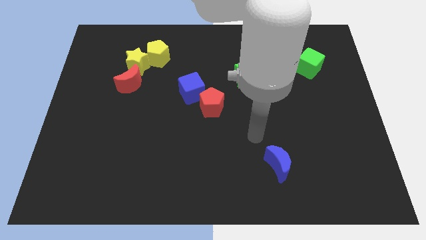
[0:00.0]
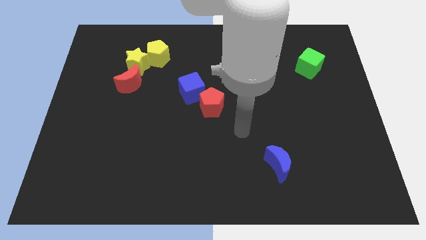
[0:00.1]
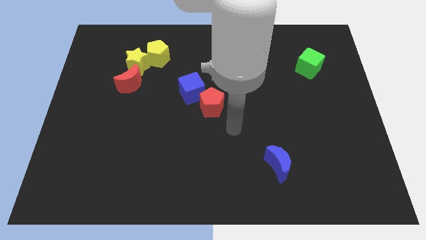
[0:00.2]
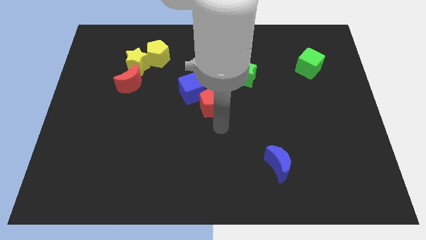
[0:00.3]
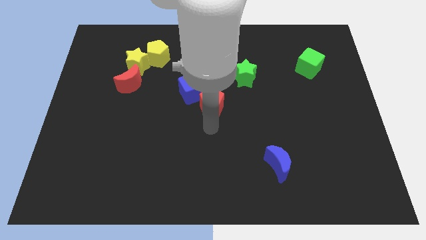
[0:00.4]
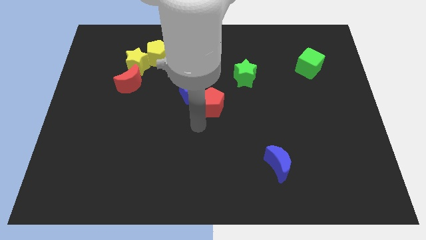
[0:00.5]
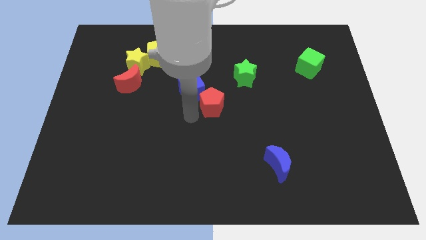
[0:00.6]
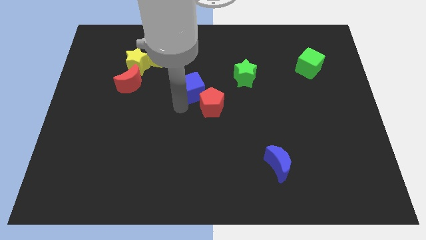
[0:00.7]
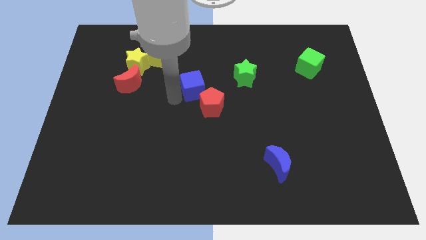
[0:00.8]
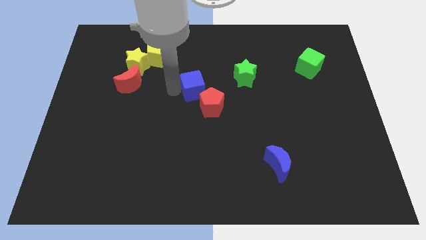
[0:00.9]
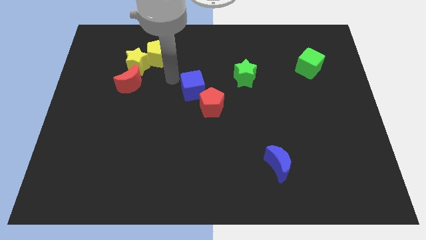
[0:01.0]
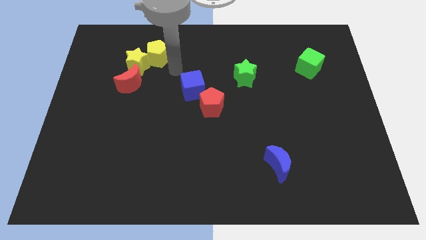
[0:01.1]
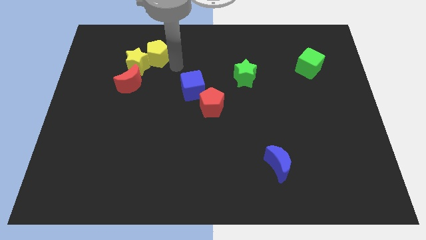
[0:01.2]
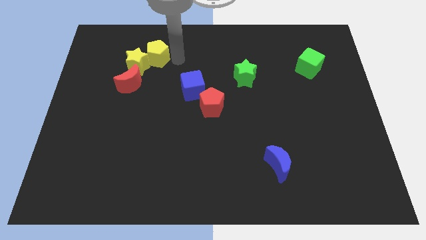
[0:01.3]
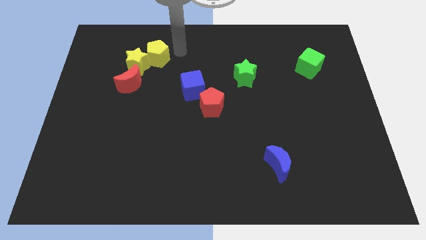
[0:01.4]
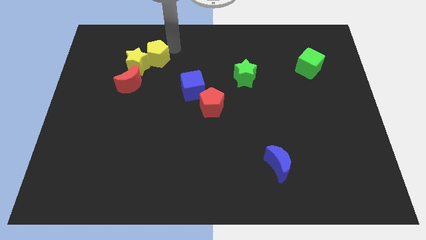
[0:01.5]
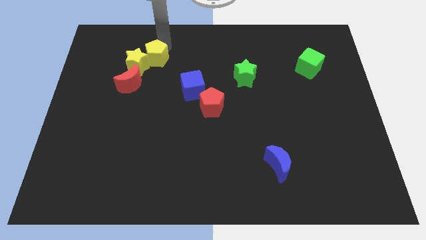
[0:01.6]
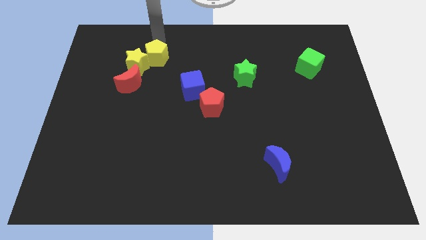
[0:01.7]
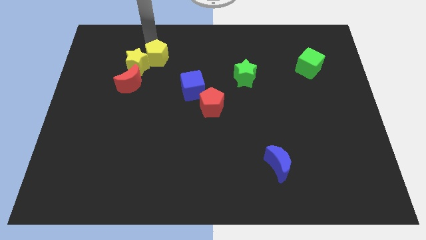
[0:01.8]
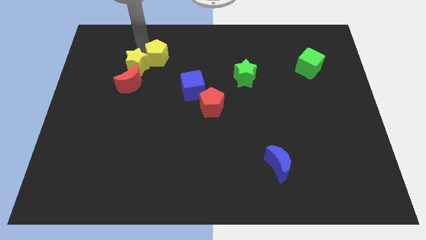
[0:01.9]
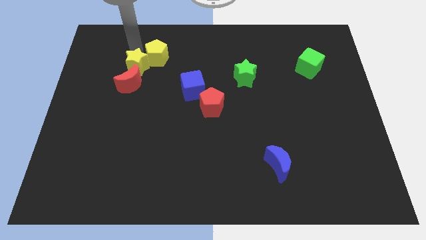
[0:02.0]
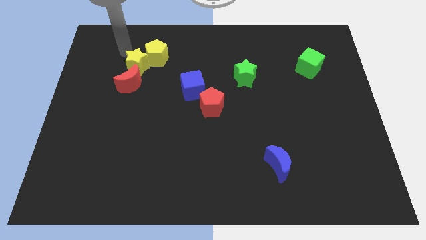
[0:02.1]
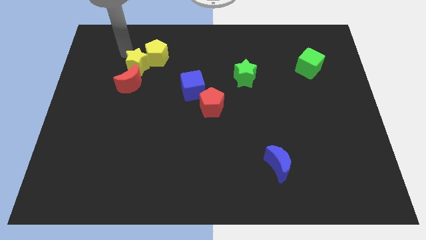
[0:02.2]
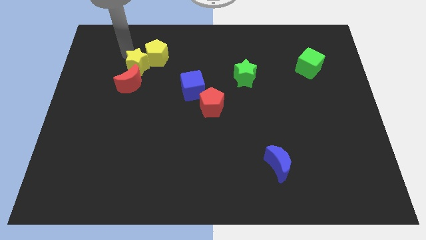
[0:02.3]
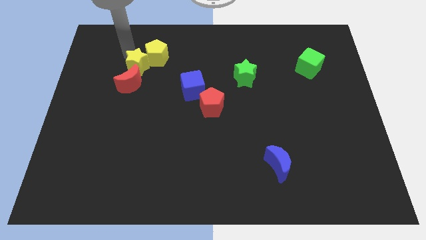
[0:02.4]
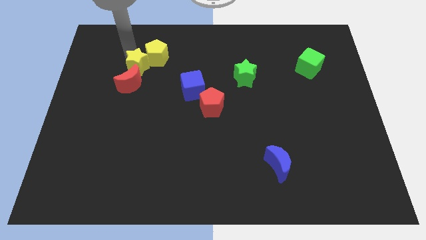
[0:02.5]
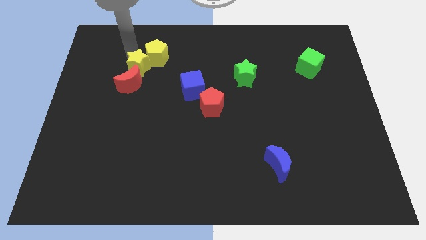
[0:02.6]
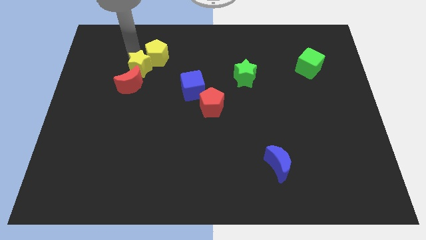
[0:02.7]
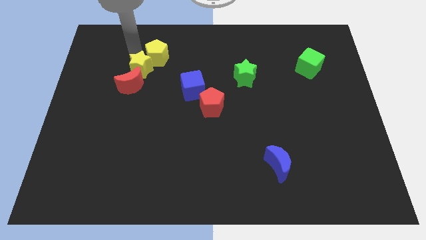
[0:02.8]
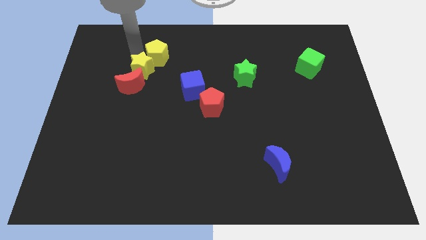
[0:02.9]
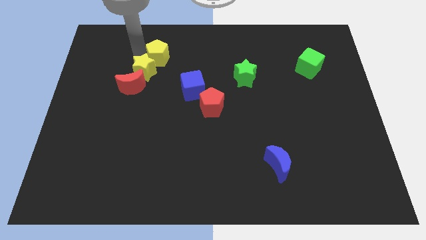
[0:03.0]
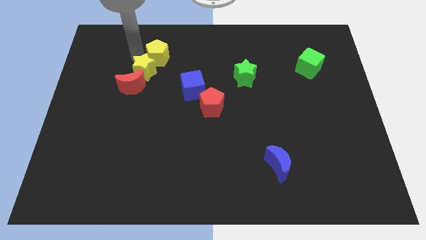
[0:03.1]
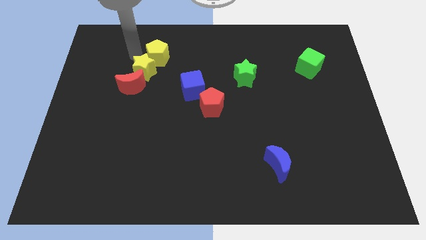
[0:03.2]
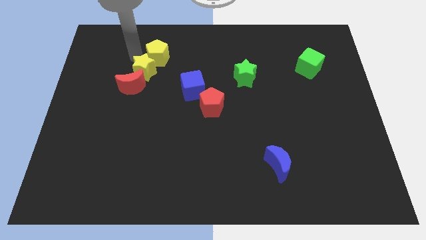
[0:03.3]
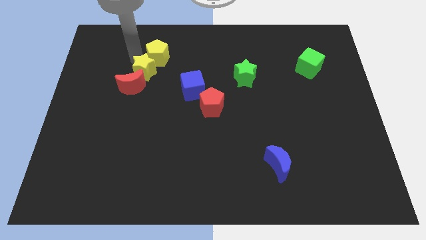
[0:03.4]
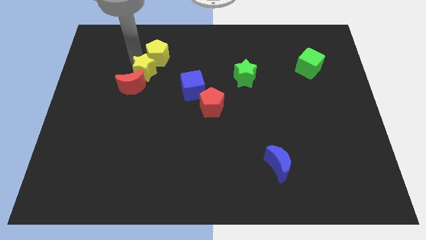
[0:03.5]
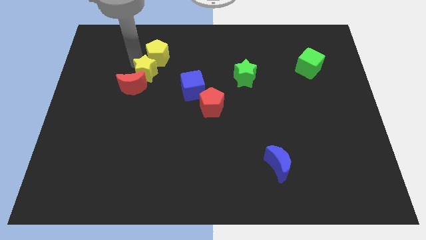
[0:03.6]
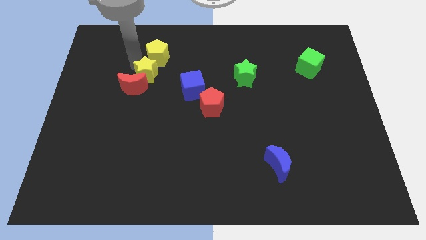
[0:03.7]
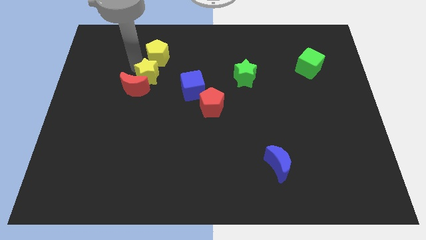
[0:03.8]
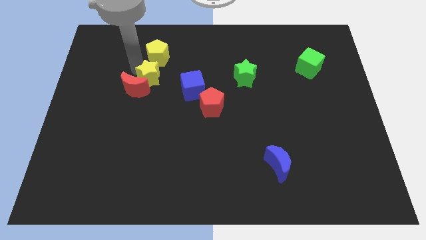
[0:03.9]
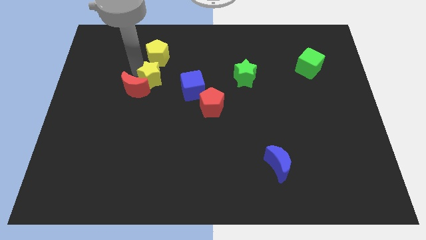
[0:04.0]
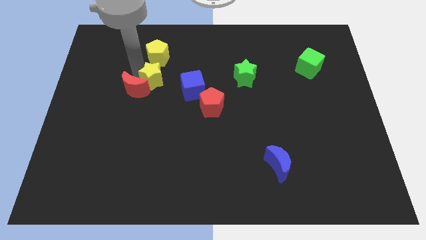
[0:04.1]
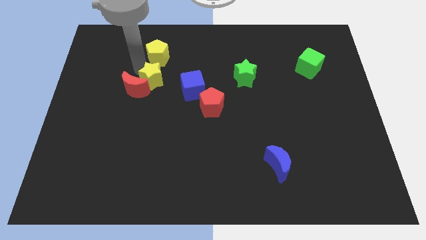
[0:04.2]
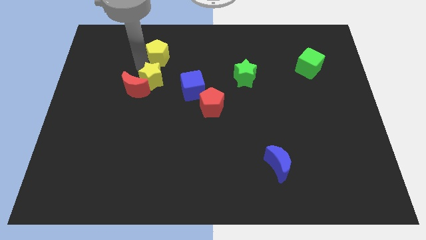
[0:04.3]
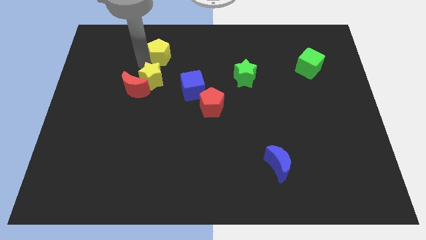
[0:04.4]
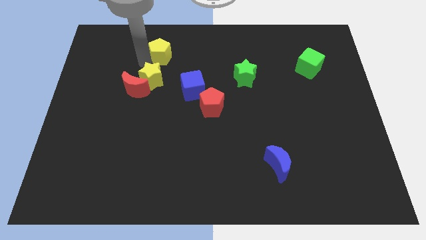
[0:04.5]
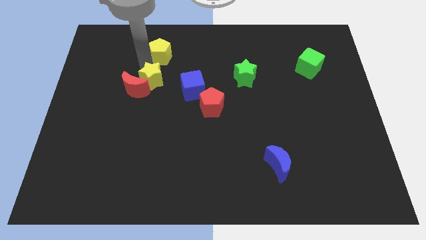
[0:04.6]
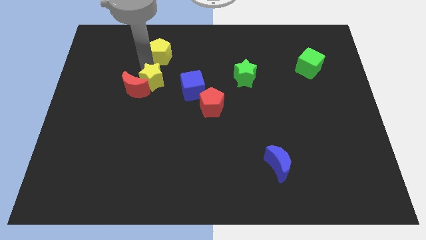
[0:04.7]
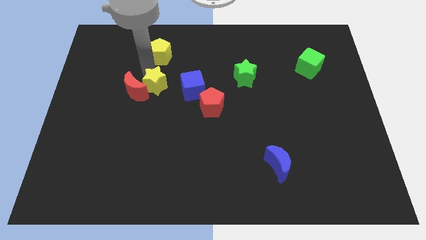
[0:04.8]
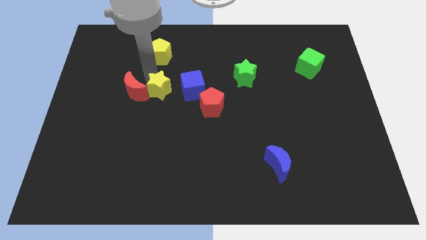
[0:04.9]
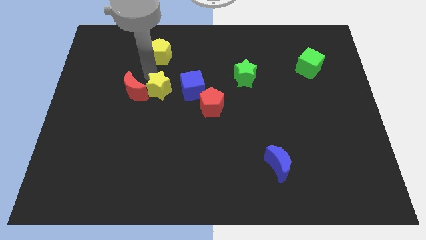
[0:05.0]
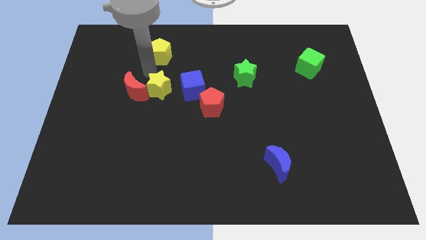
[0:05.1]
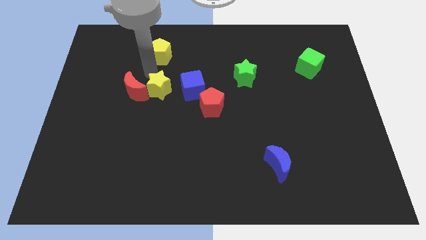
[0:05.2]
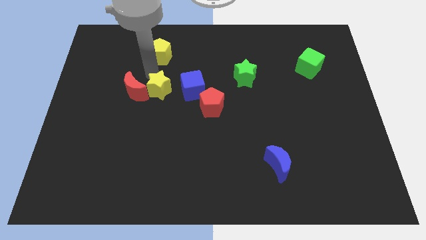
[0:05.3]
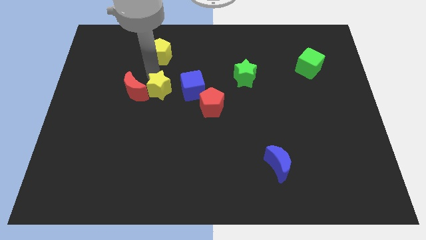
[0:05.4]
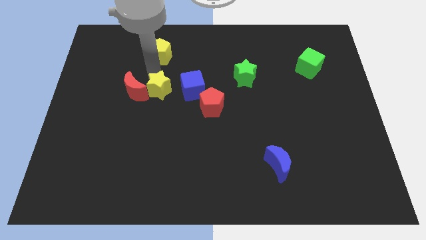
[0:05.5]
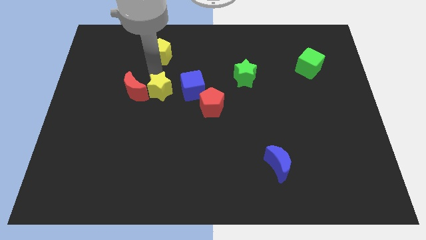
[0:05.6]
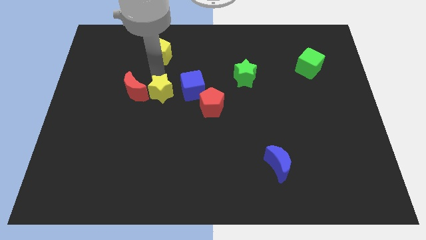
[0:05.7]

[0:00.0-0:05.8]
put the yellow star to the bottom left side of the blue cube

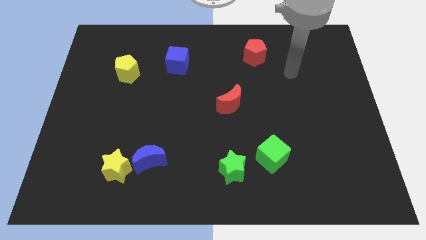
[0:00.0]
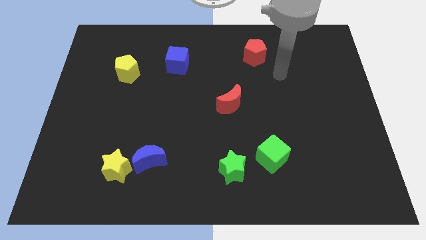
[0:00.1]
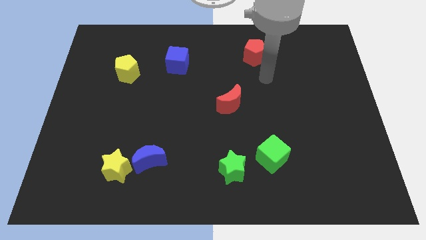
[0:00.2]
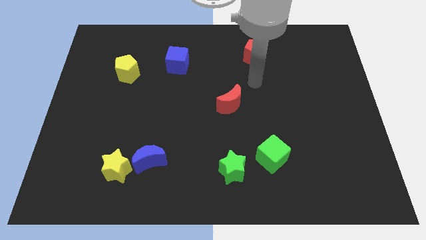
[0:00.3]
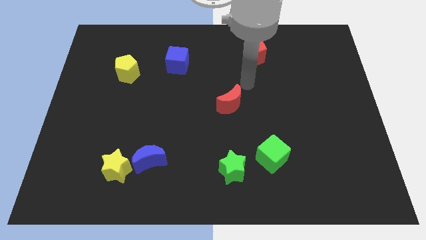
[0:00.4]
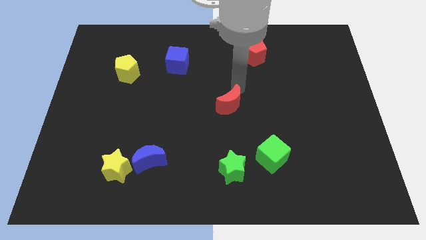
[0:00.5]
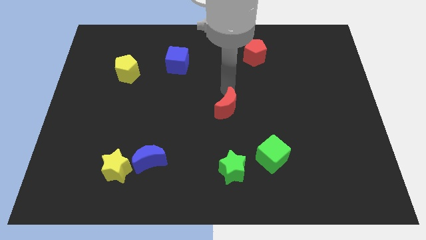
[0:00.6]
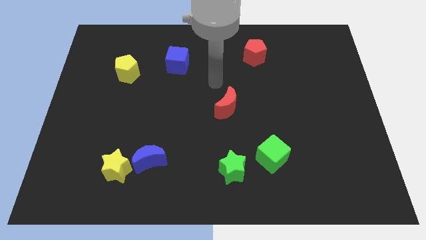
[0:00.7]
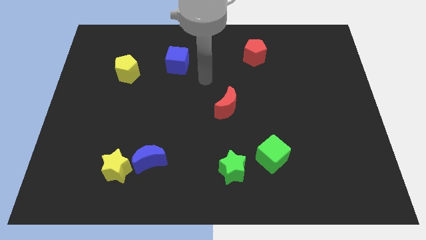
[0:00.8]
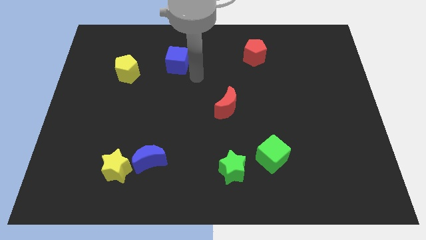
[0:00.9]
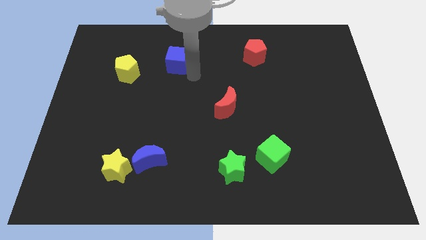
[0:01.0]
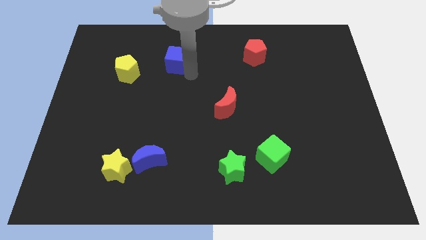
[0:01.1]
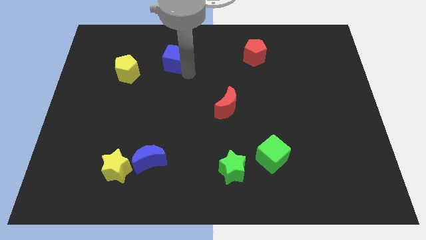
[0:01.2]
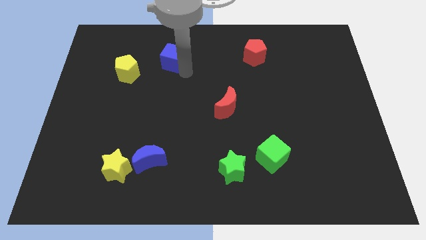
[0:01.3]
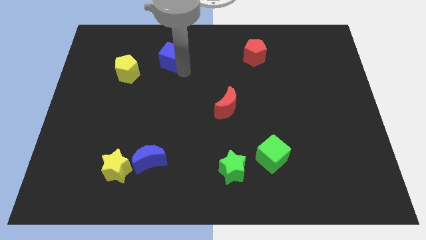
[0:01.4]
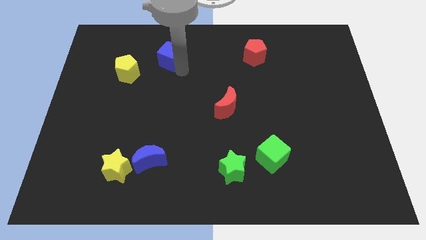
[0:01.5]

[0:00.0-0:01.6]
put the blue cube to the top right side of the yellow pentagon
